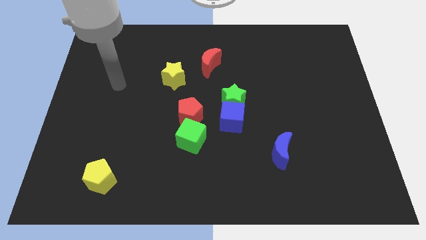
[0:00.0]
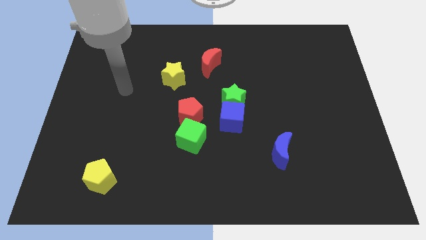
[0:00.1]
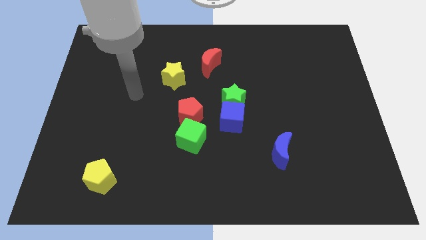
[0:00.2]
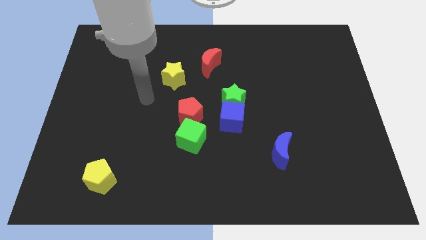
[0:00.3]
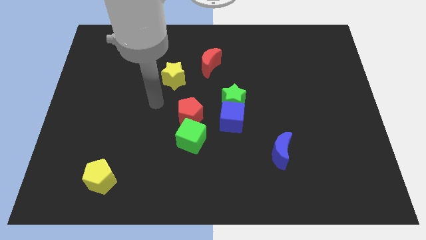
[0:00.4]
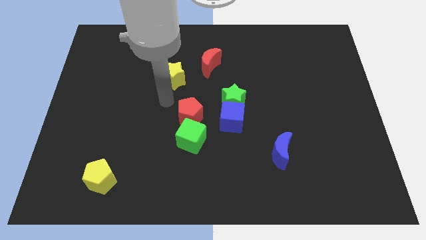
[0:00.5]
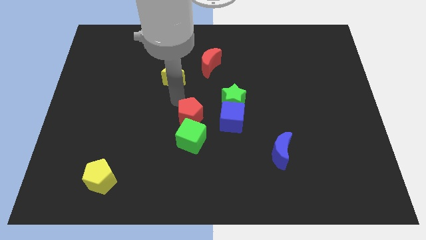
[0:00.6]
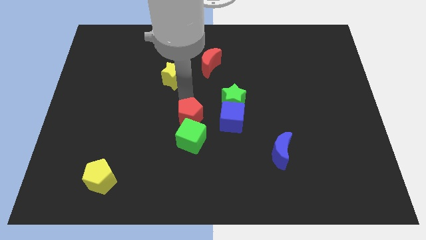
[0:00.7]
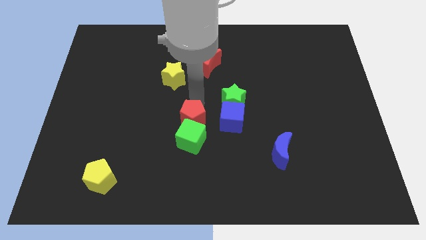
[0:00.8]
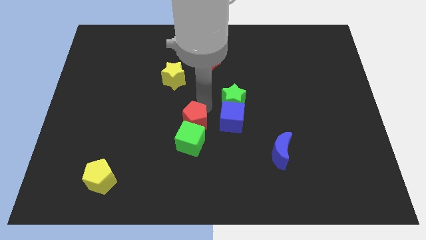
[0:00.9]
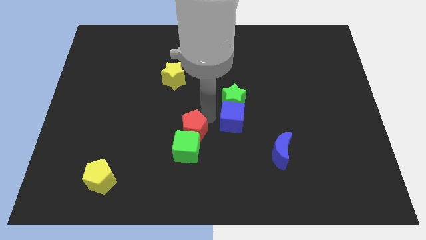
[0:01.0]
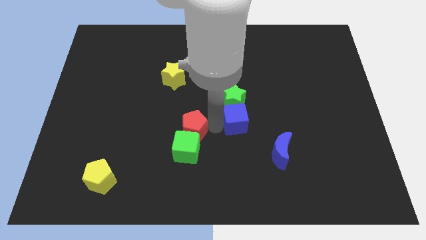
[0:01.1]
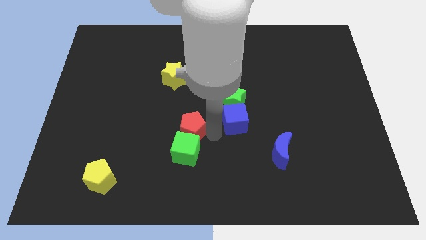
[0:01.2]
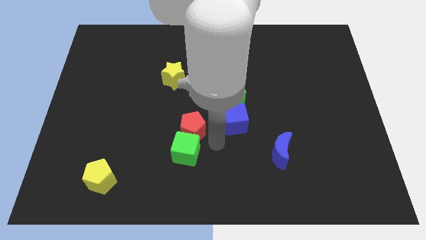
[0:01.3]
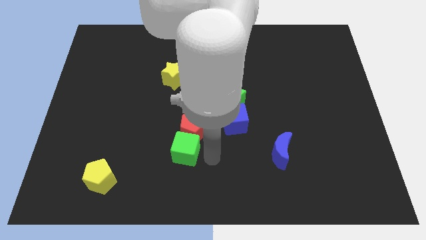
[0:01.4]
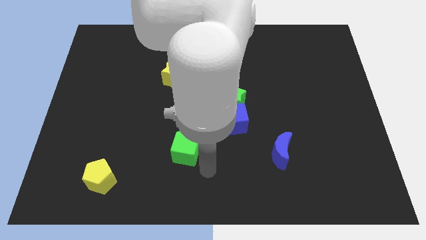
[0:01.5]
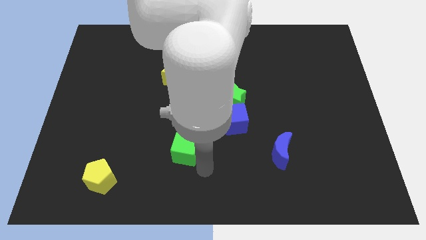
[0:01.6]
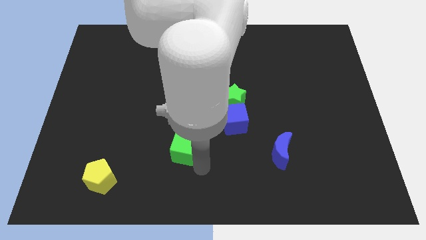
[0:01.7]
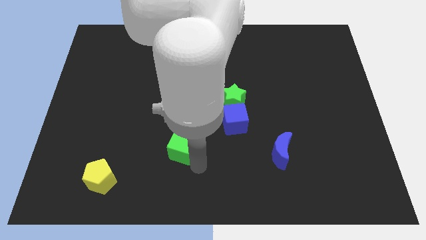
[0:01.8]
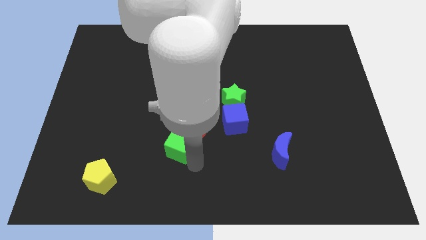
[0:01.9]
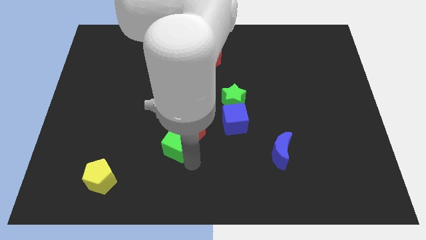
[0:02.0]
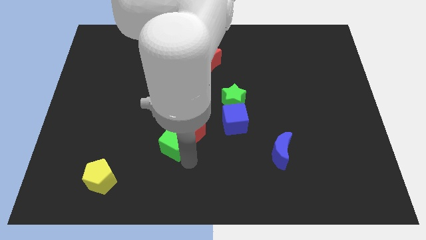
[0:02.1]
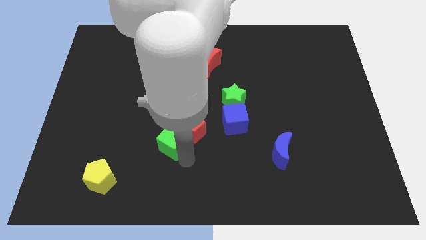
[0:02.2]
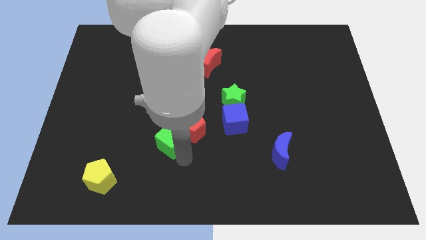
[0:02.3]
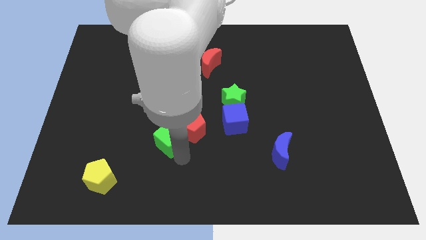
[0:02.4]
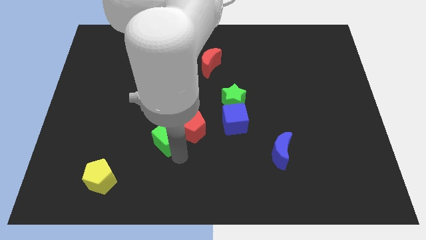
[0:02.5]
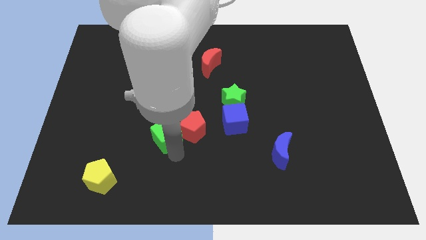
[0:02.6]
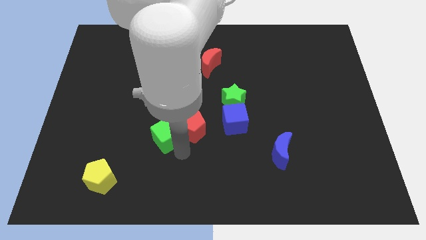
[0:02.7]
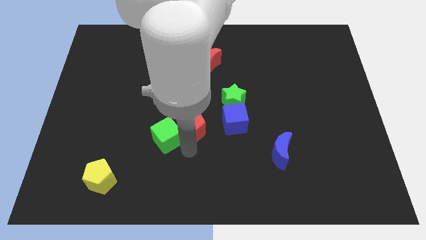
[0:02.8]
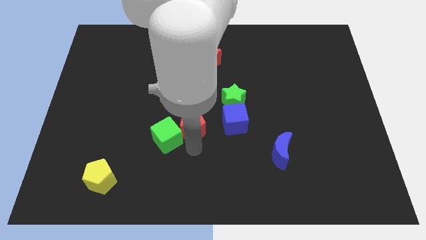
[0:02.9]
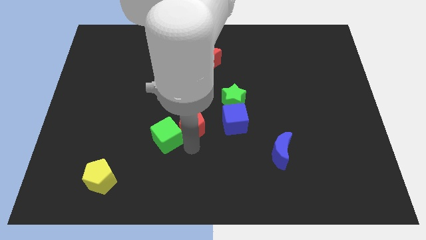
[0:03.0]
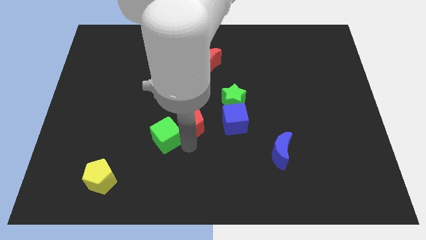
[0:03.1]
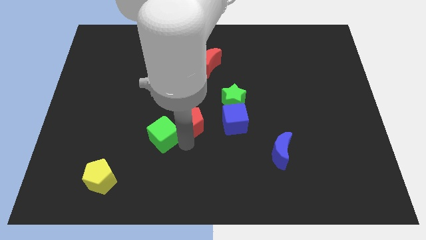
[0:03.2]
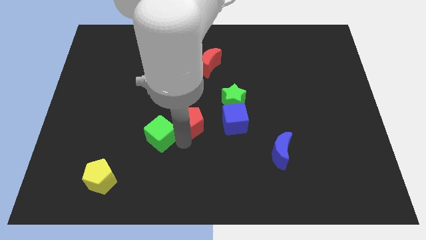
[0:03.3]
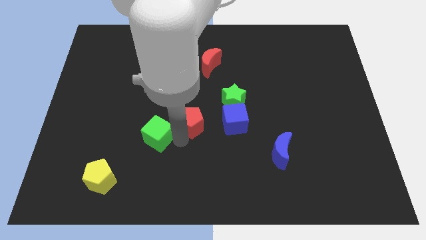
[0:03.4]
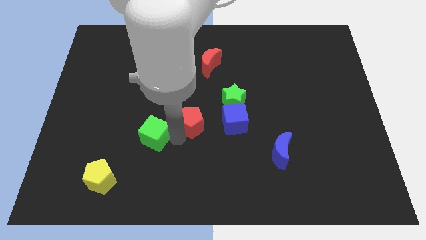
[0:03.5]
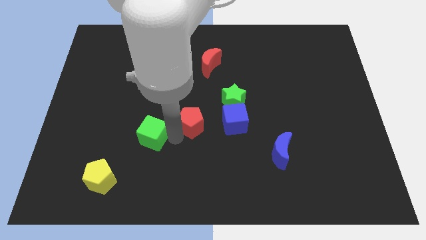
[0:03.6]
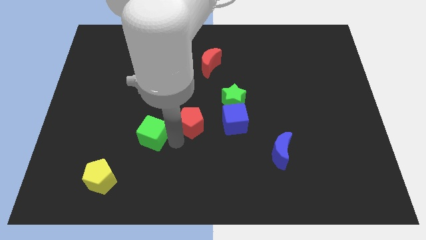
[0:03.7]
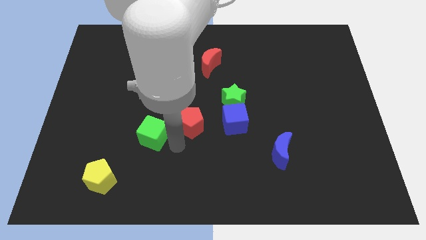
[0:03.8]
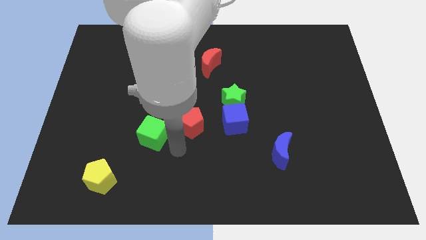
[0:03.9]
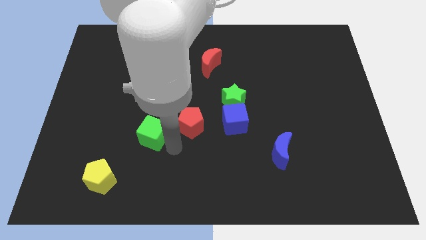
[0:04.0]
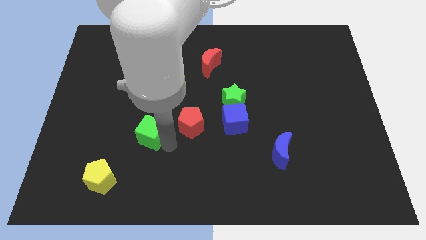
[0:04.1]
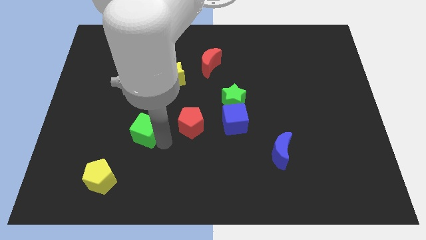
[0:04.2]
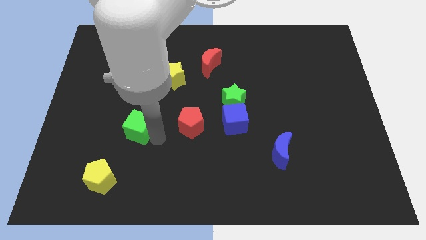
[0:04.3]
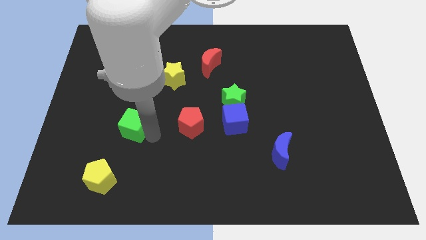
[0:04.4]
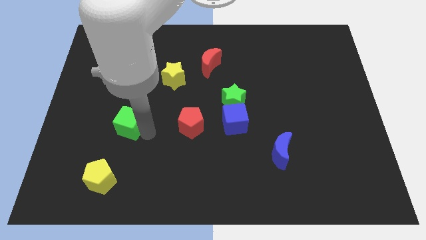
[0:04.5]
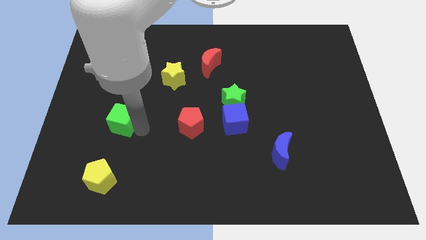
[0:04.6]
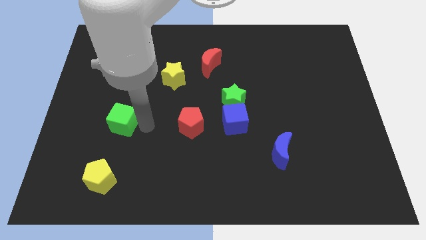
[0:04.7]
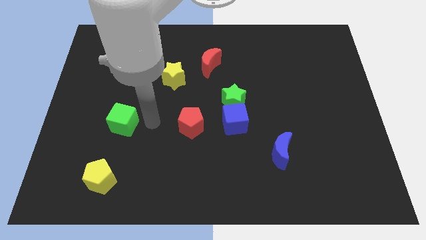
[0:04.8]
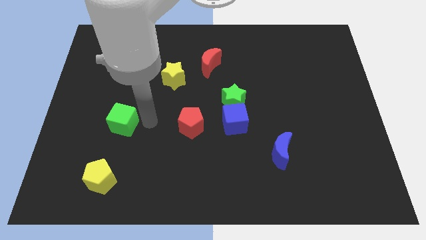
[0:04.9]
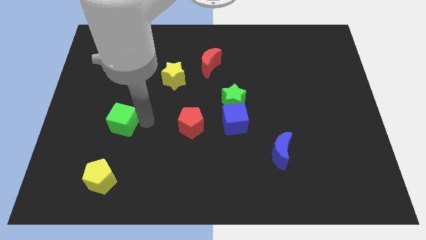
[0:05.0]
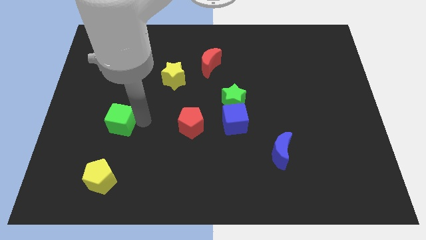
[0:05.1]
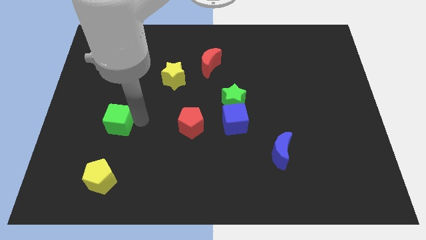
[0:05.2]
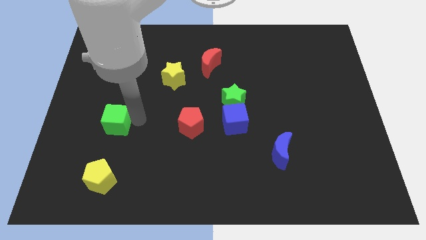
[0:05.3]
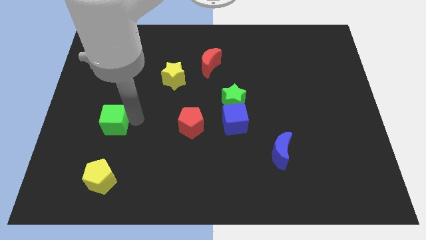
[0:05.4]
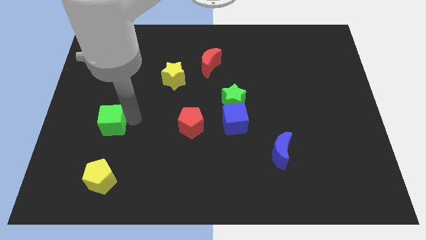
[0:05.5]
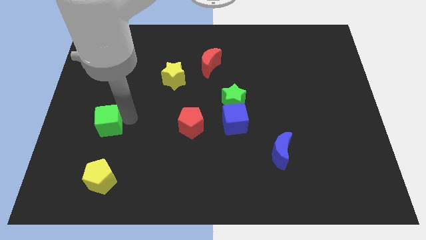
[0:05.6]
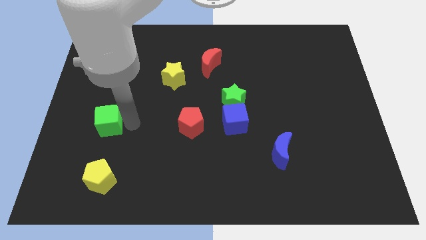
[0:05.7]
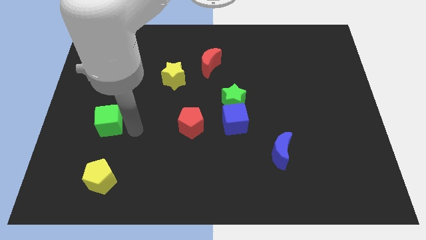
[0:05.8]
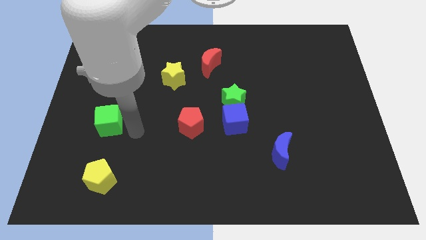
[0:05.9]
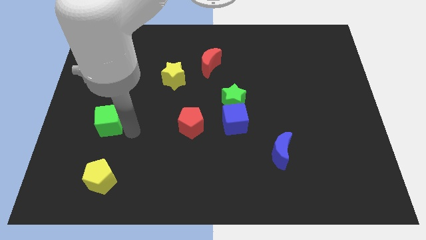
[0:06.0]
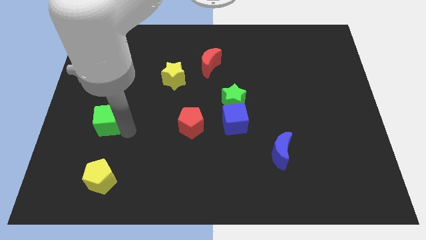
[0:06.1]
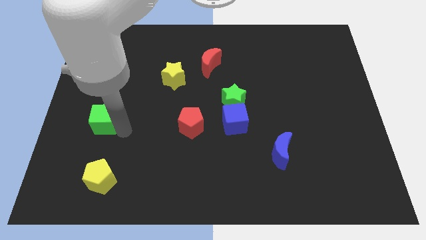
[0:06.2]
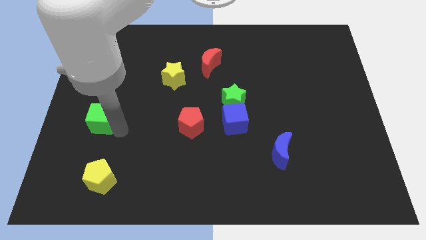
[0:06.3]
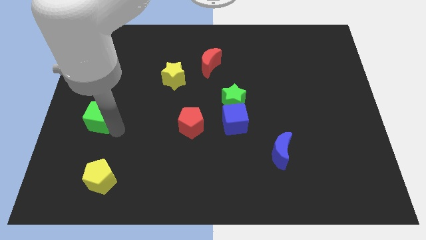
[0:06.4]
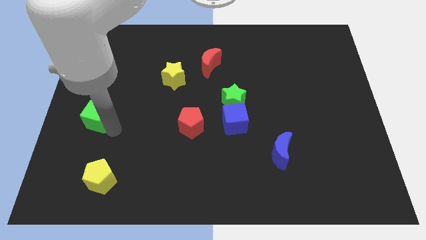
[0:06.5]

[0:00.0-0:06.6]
slide the green cube to the left side
